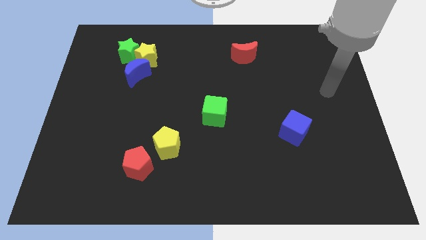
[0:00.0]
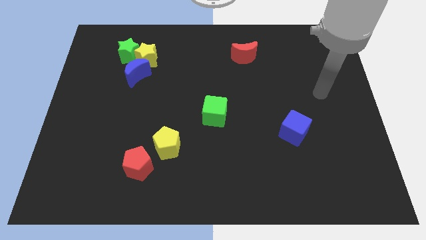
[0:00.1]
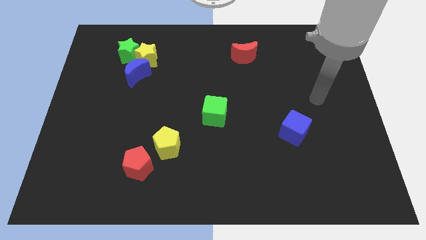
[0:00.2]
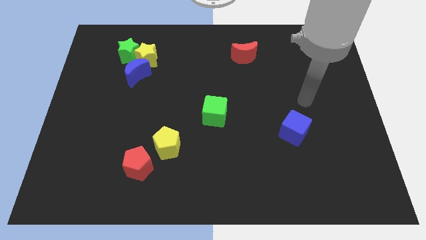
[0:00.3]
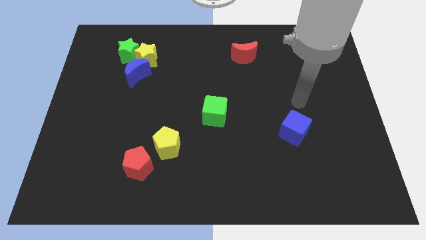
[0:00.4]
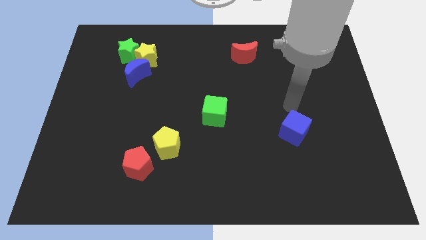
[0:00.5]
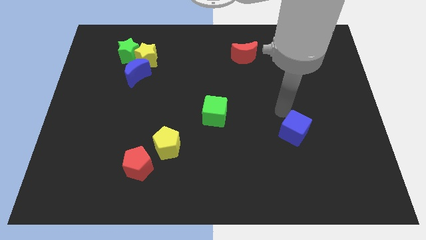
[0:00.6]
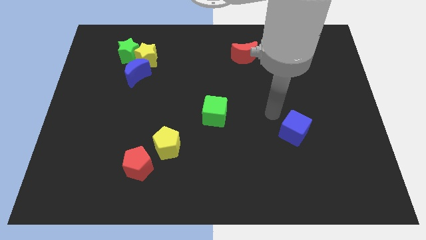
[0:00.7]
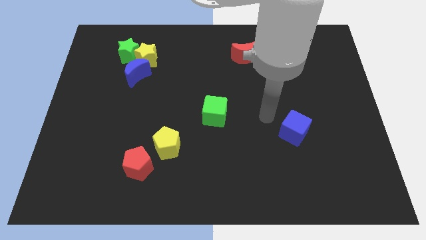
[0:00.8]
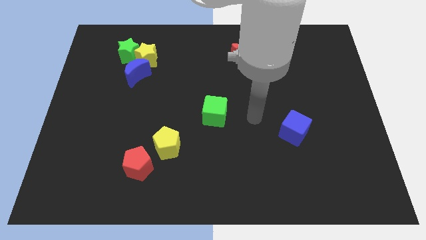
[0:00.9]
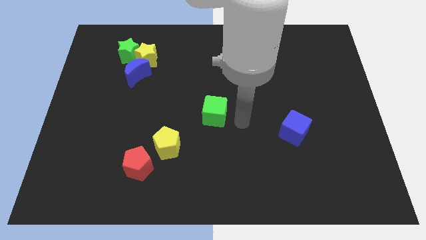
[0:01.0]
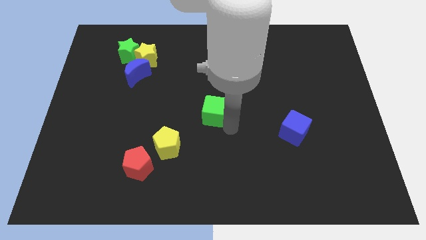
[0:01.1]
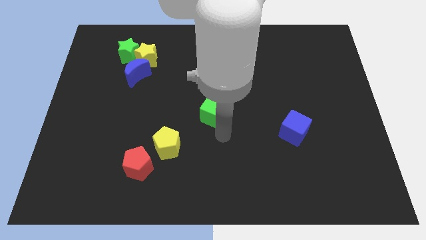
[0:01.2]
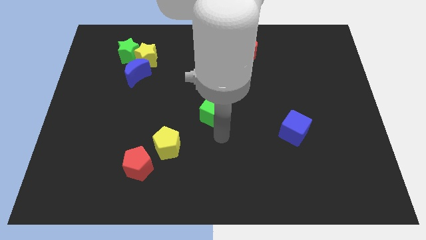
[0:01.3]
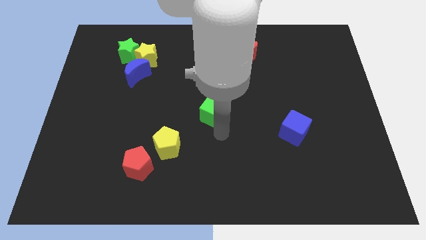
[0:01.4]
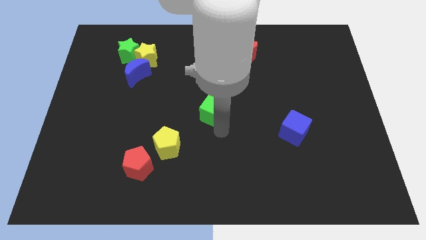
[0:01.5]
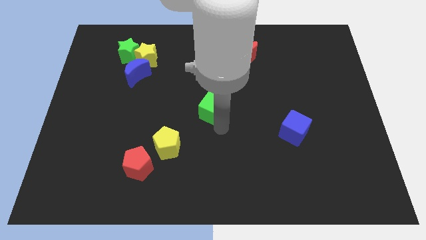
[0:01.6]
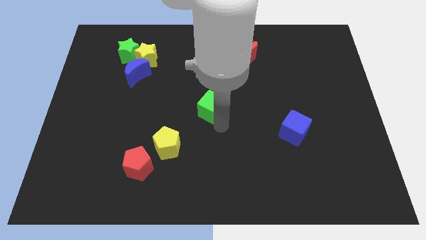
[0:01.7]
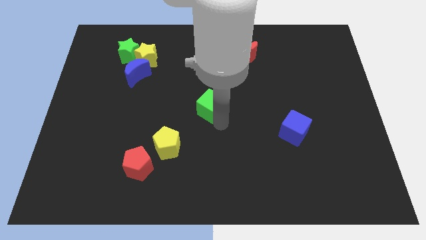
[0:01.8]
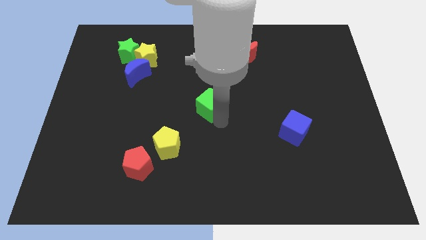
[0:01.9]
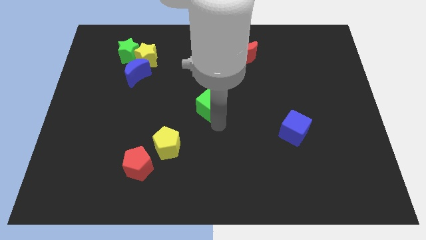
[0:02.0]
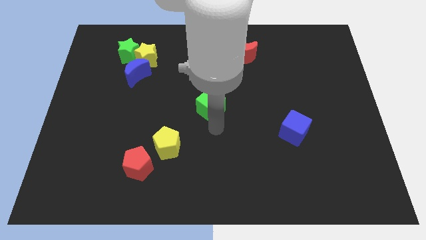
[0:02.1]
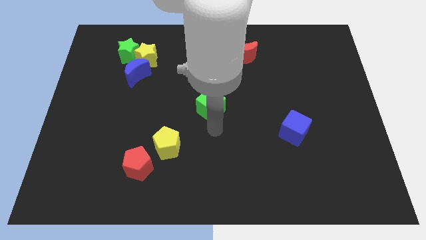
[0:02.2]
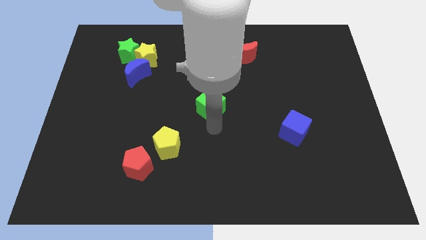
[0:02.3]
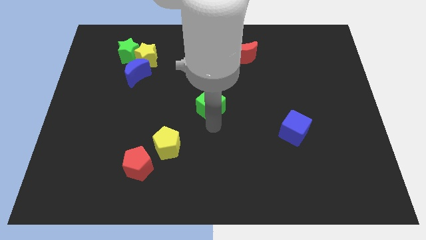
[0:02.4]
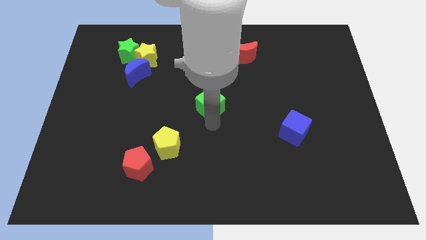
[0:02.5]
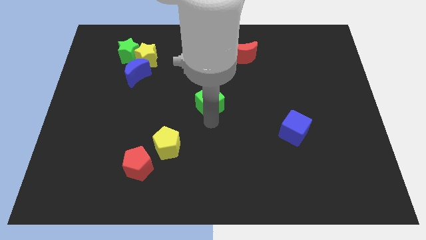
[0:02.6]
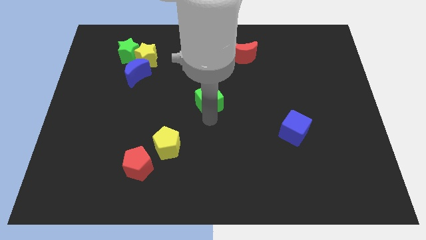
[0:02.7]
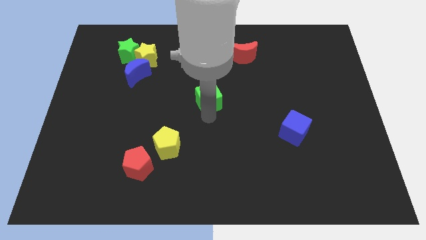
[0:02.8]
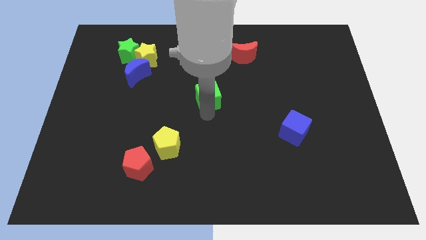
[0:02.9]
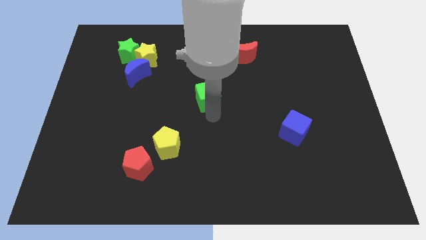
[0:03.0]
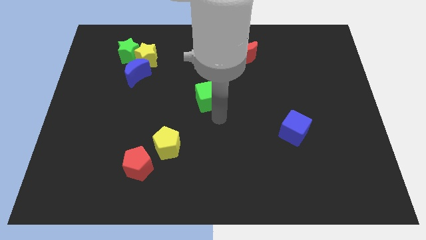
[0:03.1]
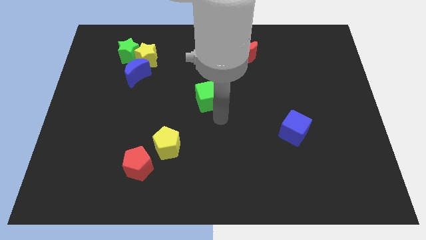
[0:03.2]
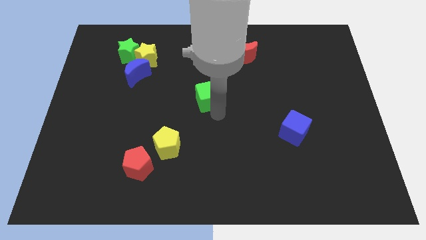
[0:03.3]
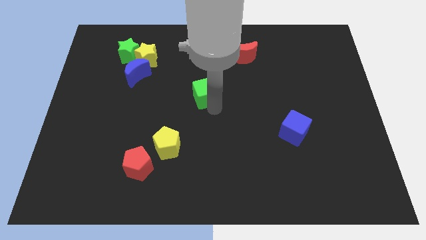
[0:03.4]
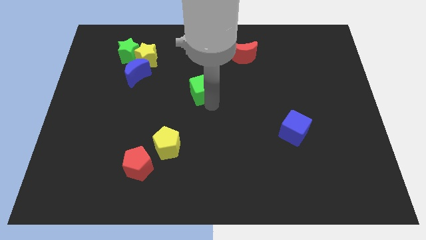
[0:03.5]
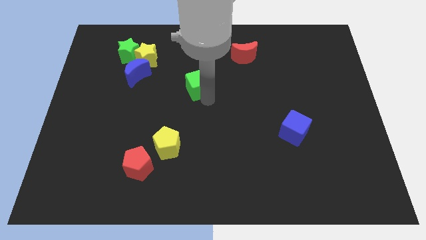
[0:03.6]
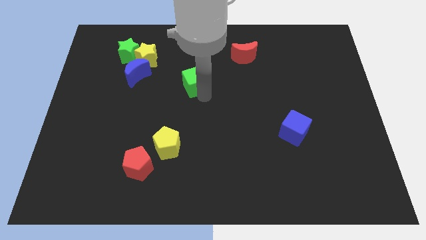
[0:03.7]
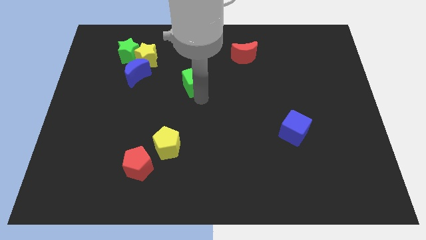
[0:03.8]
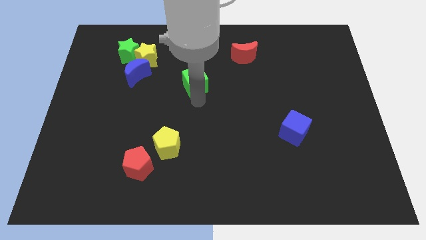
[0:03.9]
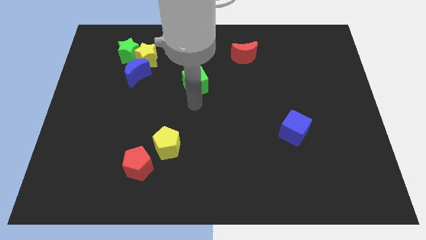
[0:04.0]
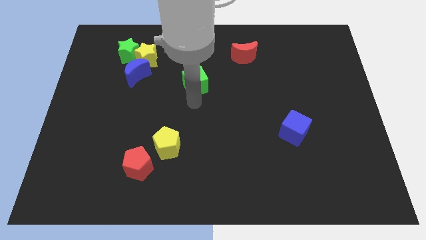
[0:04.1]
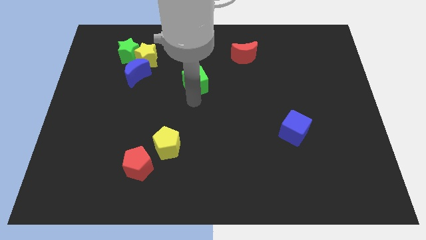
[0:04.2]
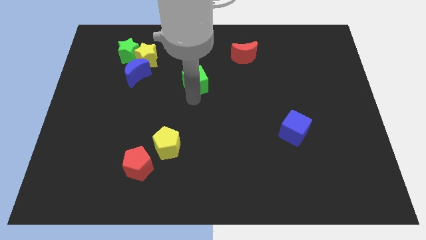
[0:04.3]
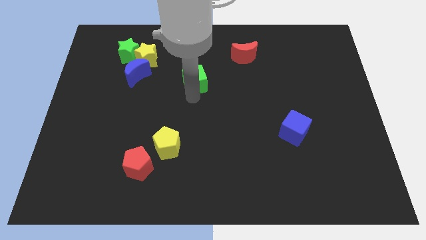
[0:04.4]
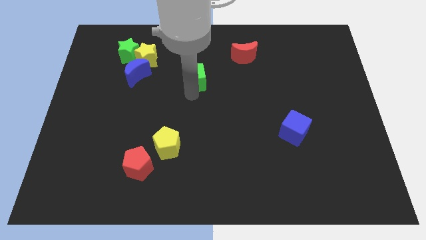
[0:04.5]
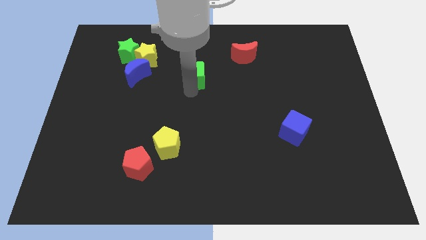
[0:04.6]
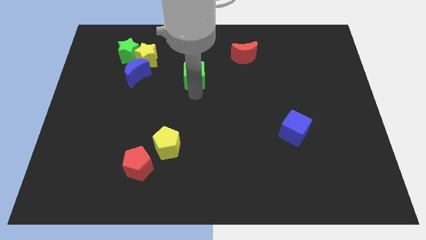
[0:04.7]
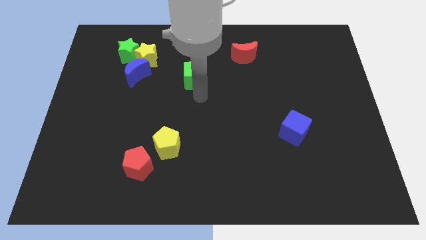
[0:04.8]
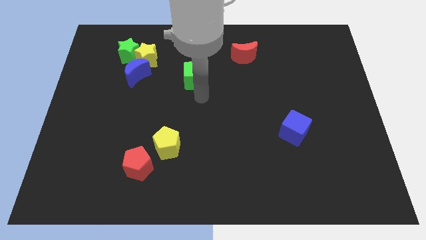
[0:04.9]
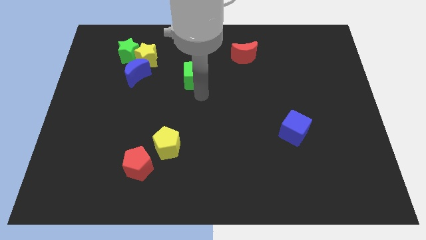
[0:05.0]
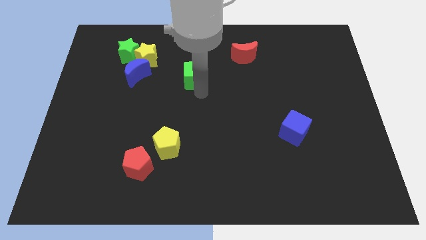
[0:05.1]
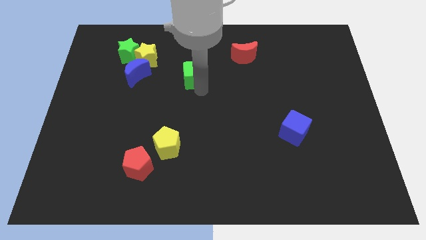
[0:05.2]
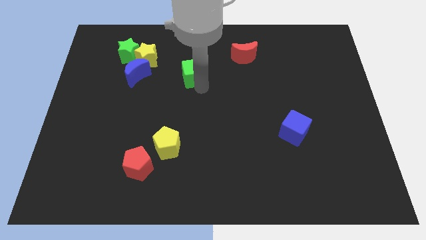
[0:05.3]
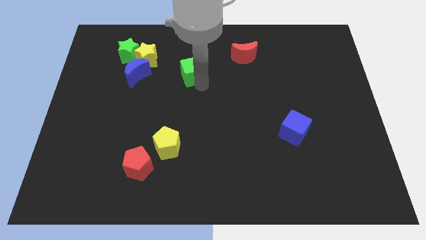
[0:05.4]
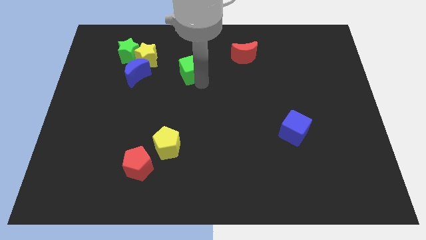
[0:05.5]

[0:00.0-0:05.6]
push the green cube to the right side of the yellow star

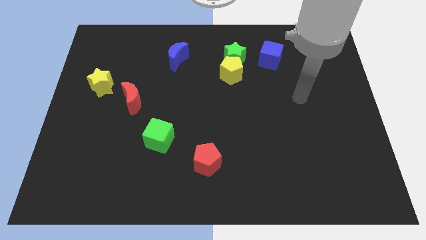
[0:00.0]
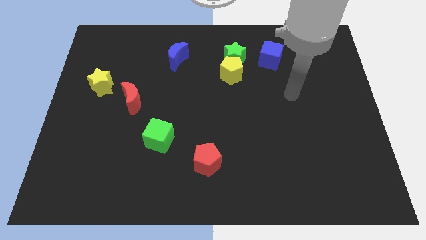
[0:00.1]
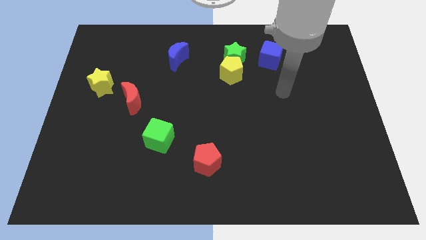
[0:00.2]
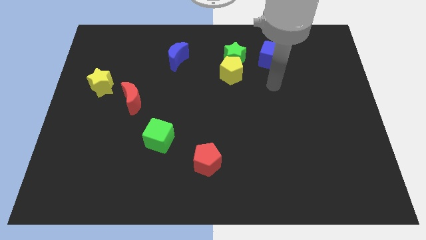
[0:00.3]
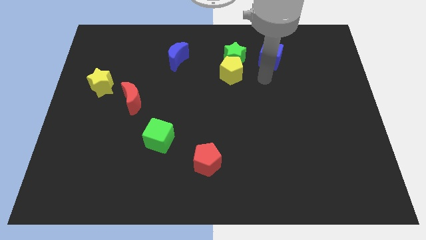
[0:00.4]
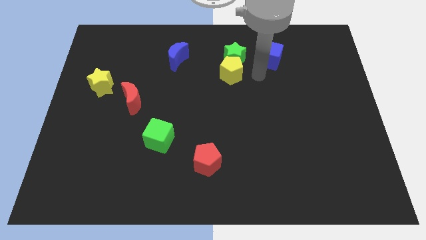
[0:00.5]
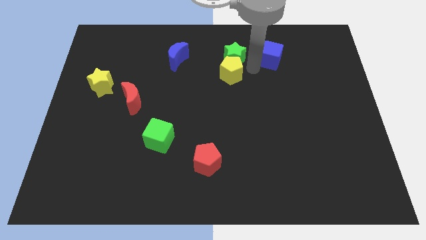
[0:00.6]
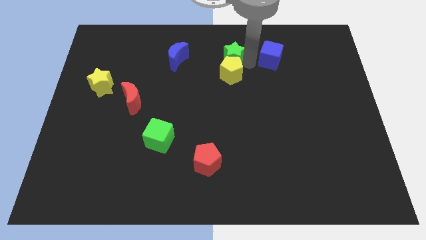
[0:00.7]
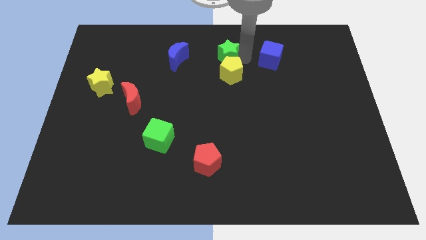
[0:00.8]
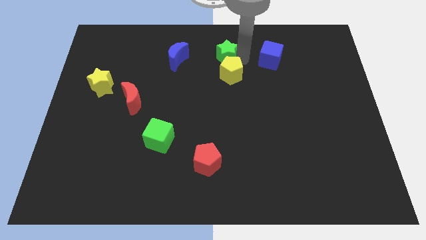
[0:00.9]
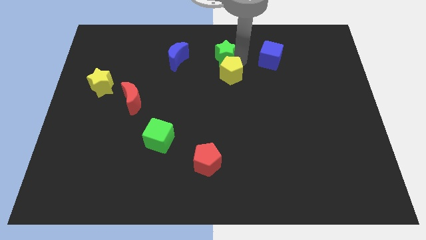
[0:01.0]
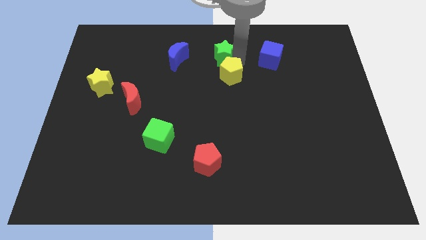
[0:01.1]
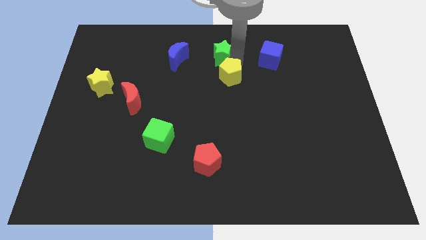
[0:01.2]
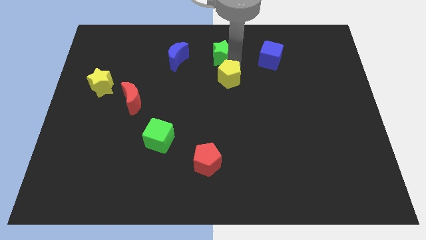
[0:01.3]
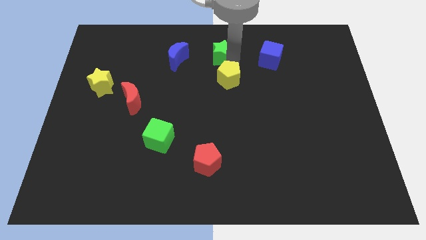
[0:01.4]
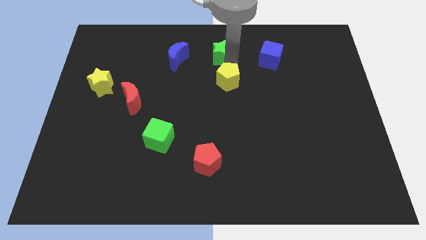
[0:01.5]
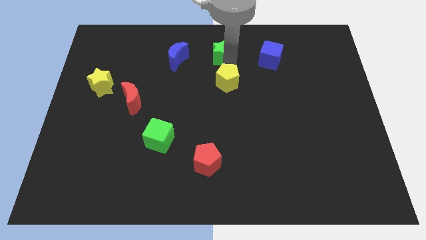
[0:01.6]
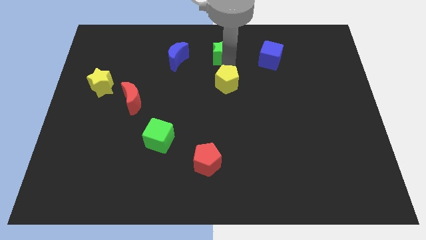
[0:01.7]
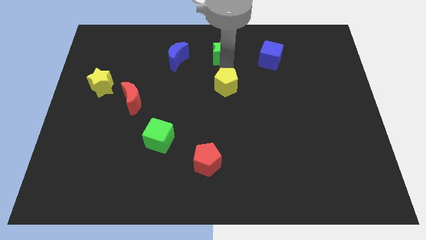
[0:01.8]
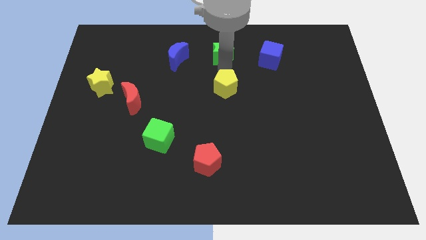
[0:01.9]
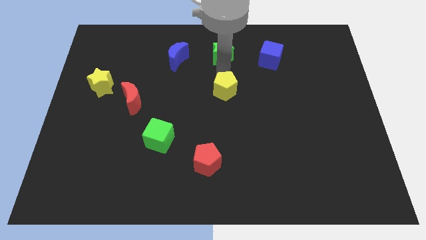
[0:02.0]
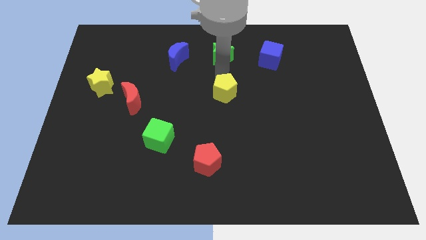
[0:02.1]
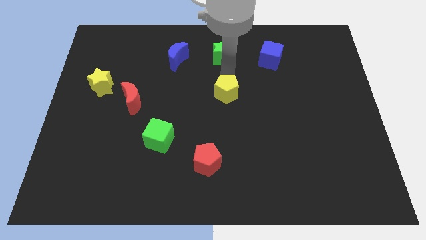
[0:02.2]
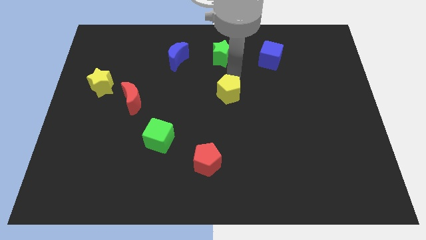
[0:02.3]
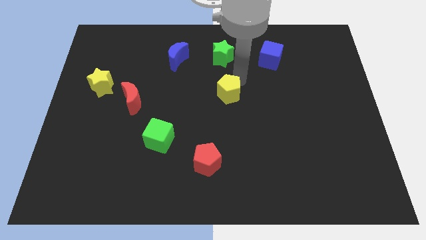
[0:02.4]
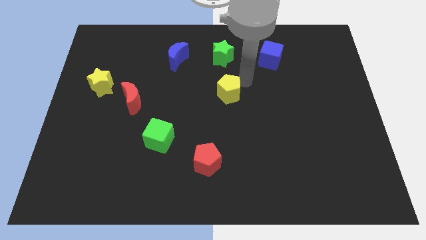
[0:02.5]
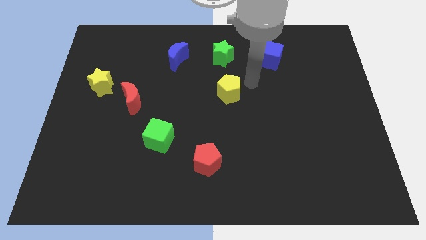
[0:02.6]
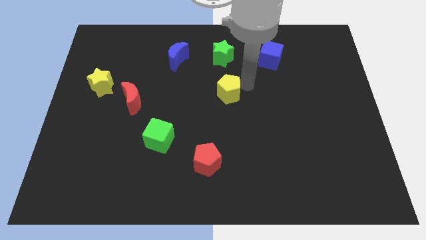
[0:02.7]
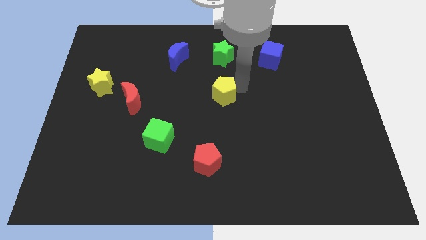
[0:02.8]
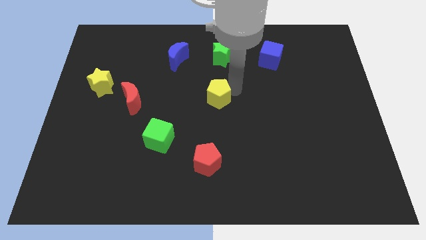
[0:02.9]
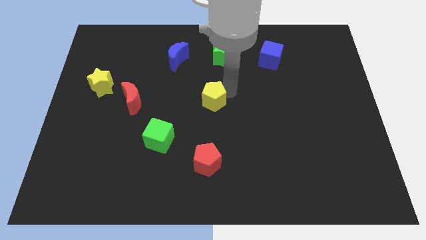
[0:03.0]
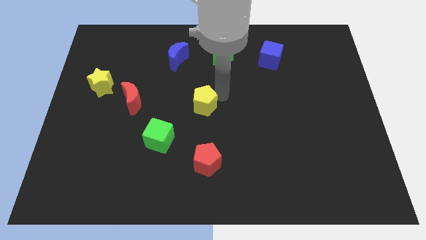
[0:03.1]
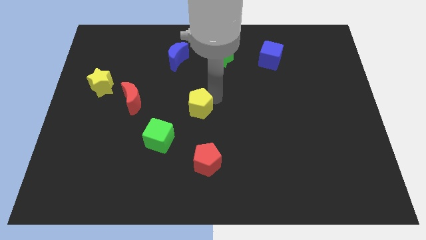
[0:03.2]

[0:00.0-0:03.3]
move the yellow pentagon to the top right side of the green cube
